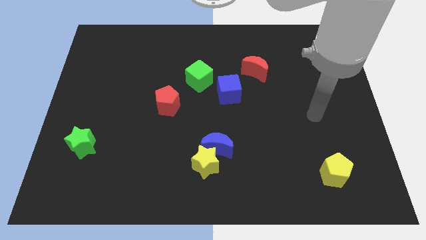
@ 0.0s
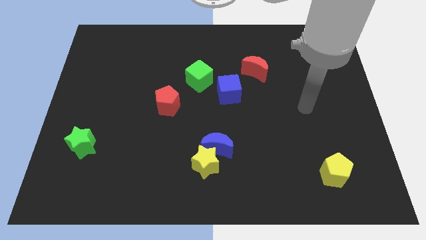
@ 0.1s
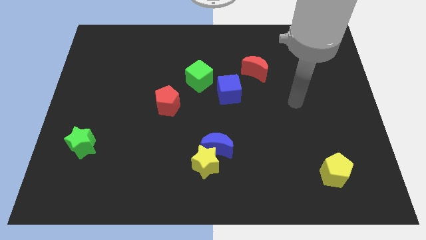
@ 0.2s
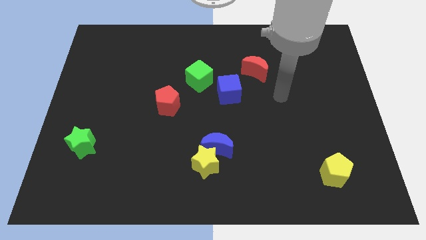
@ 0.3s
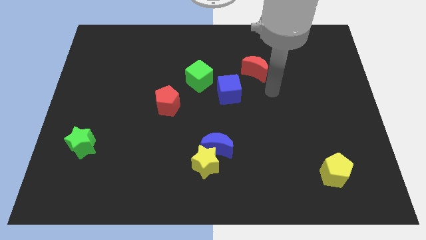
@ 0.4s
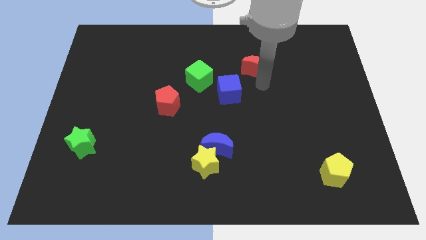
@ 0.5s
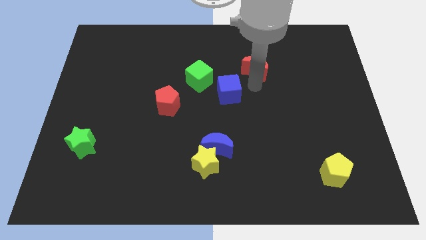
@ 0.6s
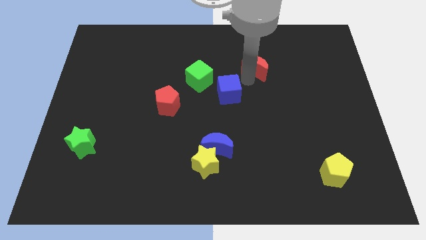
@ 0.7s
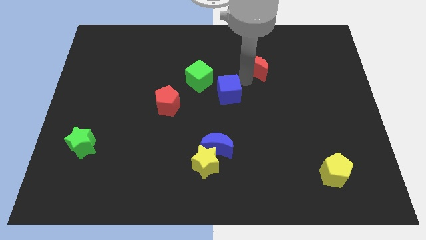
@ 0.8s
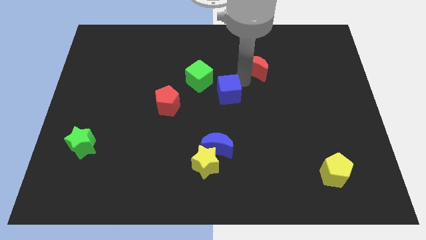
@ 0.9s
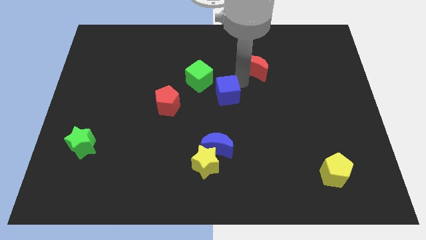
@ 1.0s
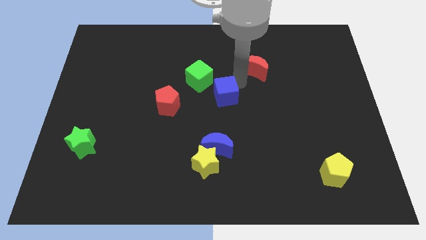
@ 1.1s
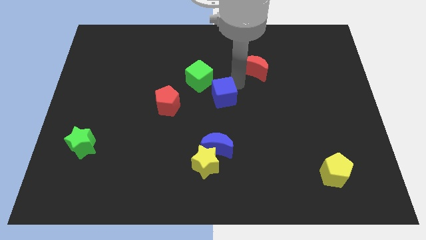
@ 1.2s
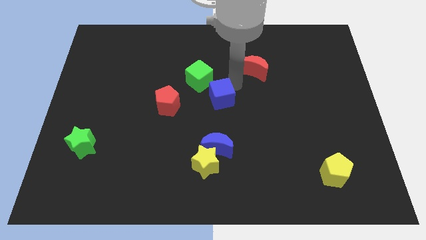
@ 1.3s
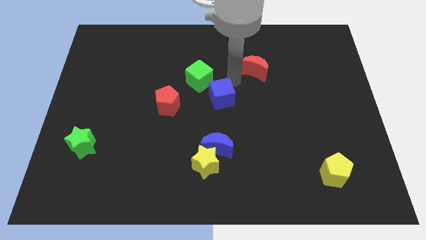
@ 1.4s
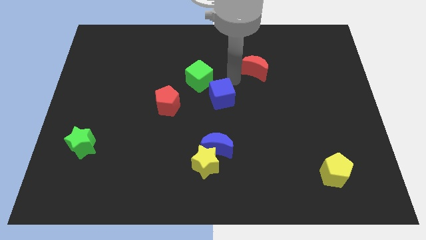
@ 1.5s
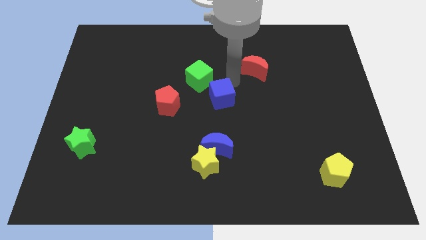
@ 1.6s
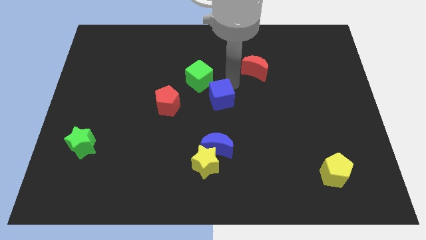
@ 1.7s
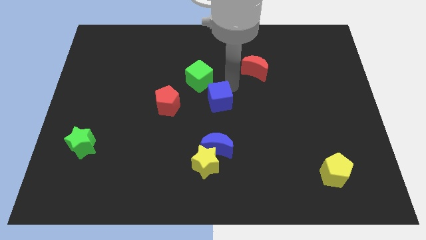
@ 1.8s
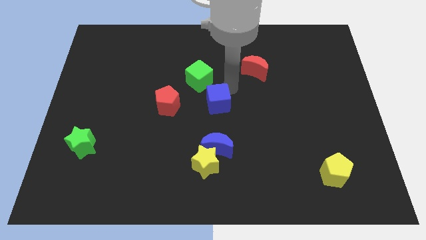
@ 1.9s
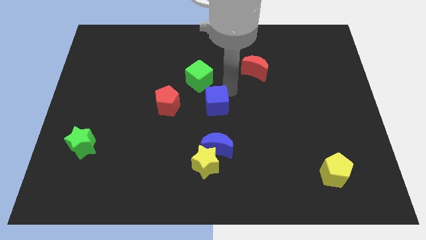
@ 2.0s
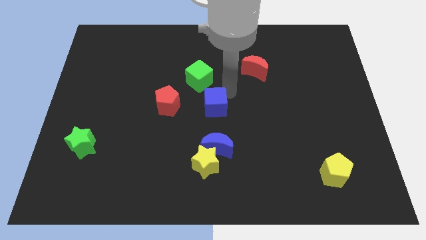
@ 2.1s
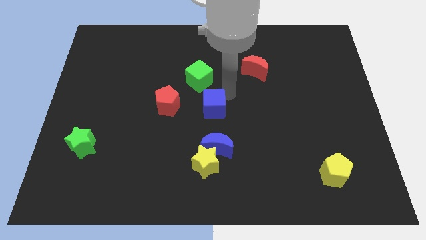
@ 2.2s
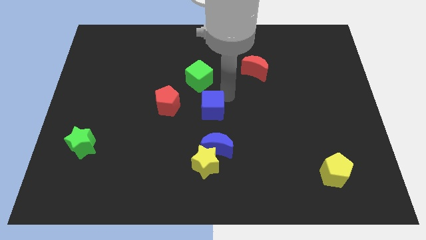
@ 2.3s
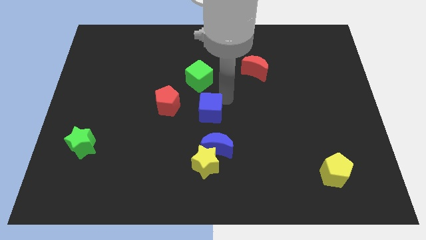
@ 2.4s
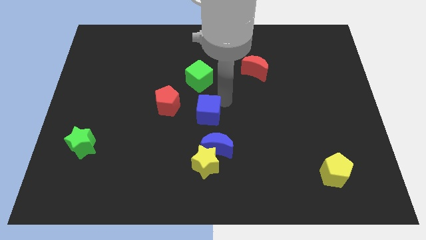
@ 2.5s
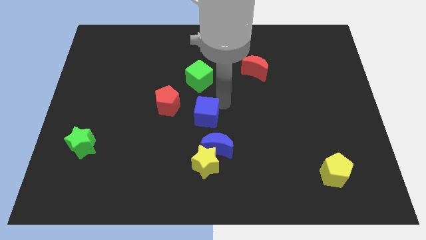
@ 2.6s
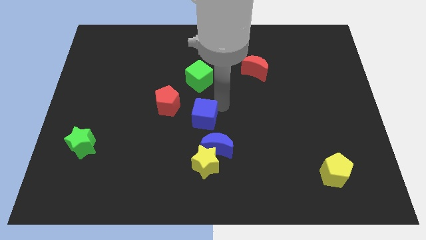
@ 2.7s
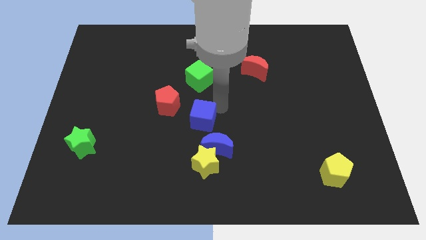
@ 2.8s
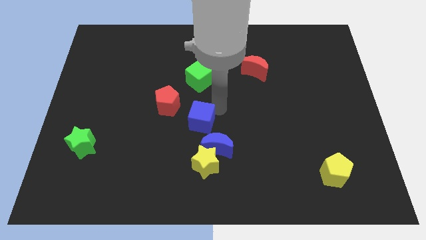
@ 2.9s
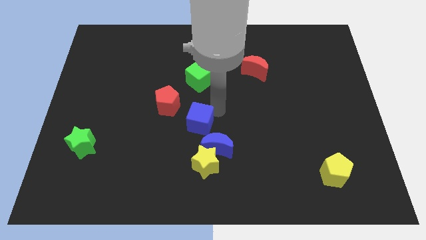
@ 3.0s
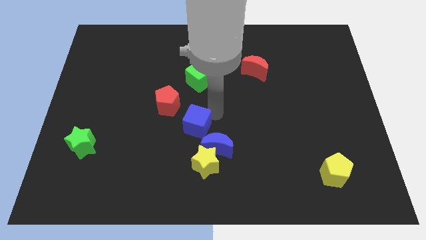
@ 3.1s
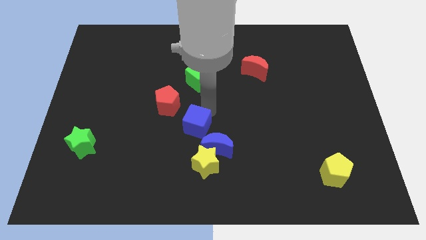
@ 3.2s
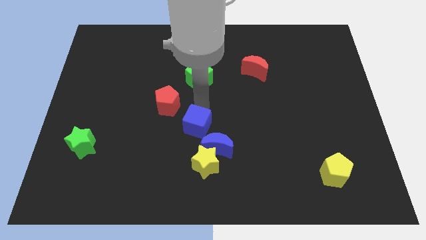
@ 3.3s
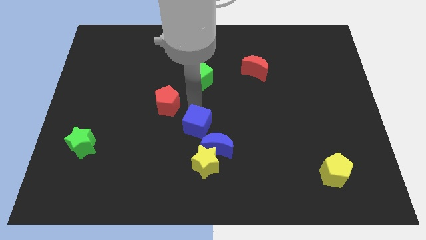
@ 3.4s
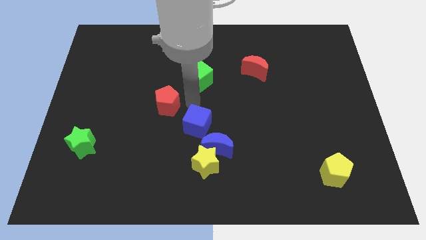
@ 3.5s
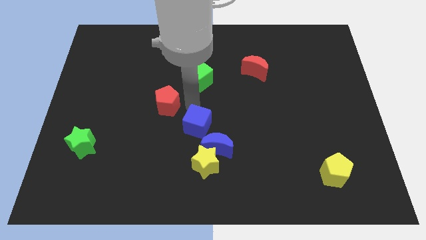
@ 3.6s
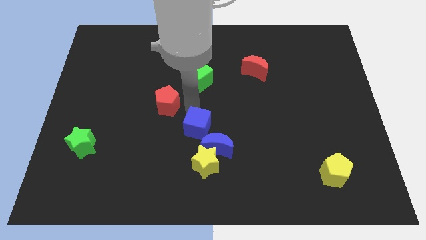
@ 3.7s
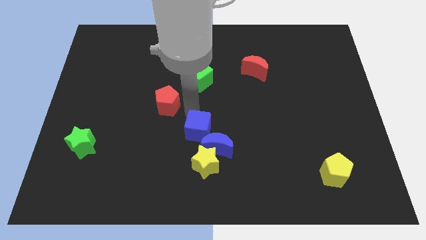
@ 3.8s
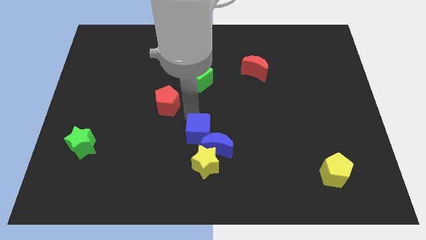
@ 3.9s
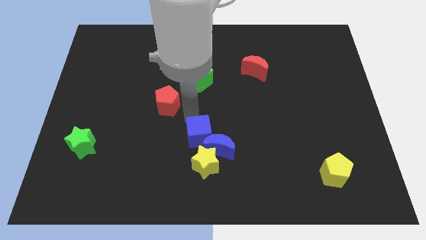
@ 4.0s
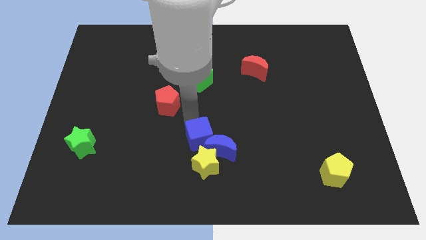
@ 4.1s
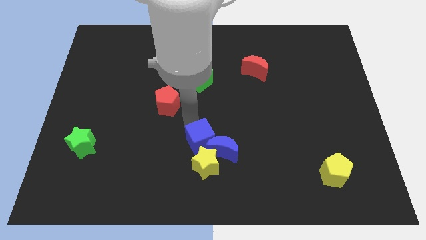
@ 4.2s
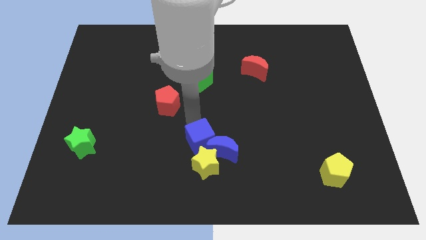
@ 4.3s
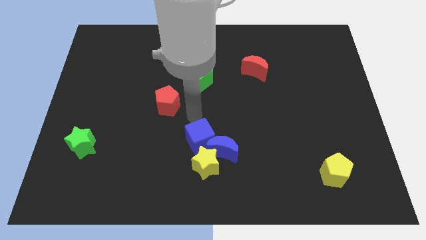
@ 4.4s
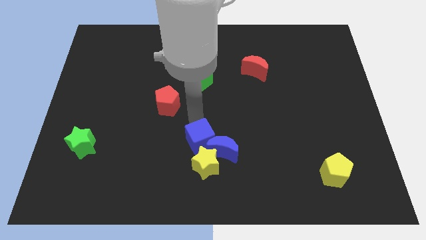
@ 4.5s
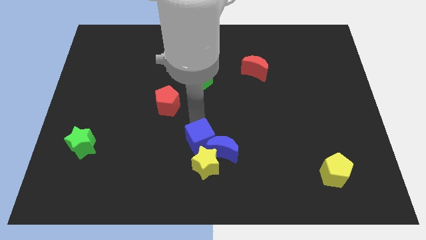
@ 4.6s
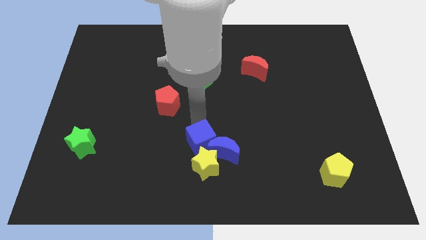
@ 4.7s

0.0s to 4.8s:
move the blue cube next to the yellow star

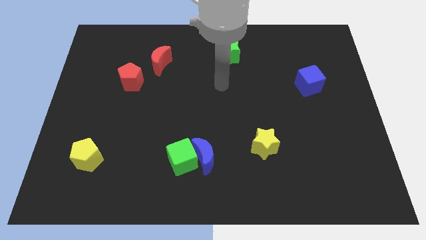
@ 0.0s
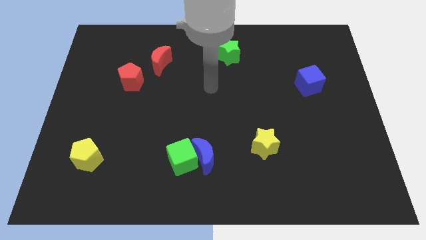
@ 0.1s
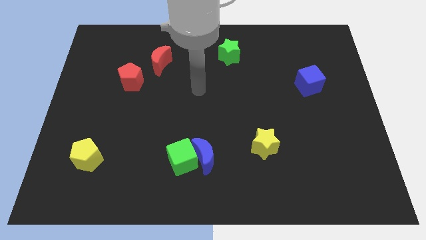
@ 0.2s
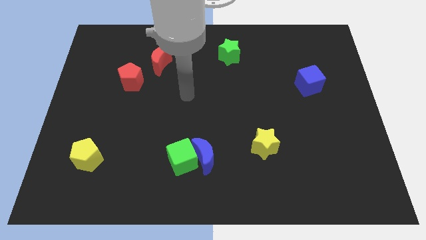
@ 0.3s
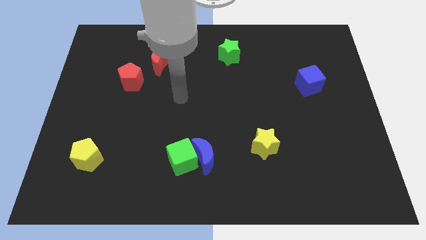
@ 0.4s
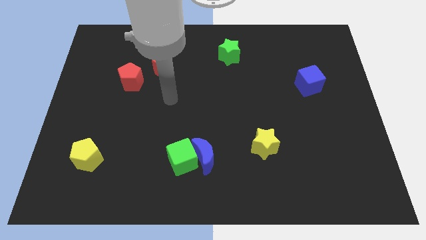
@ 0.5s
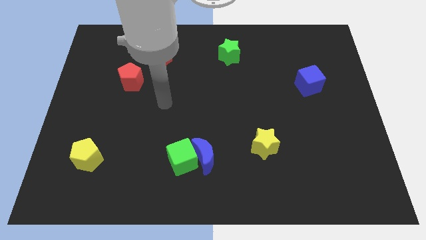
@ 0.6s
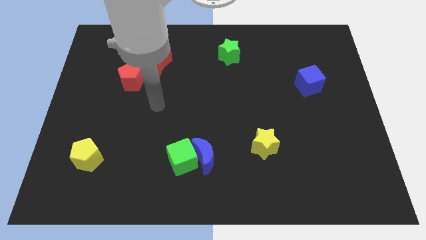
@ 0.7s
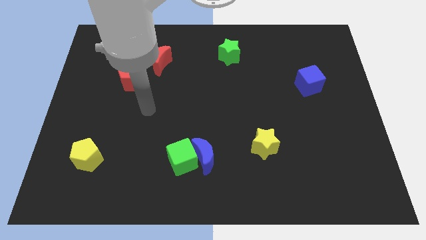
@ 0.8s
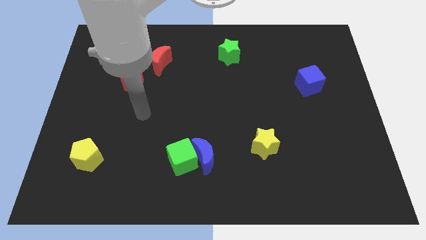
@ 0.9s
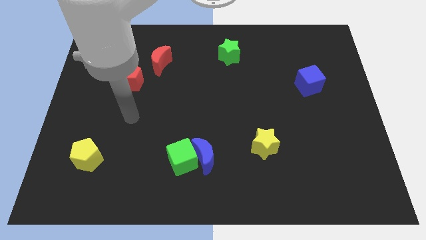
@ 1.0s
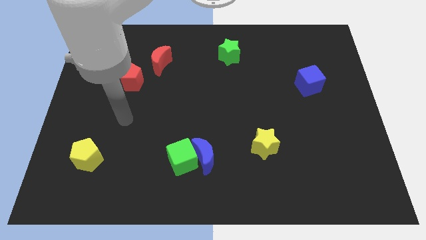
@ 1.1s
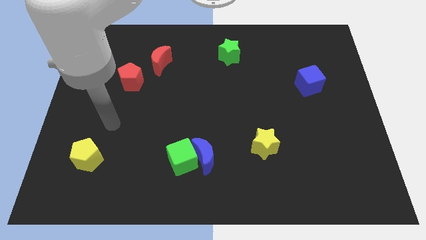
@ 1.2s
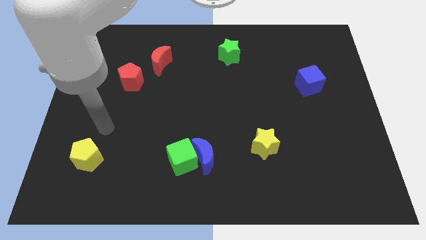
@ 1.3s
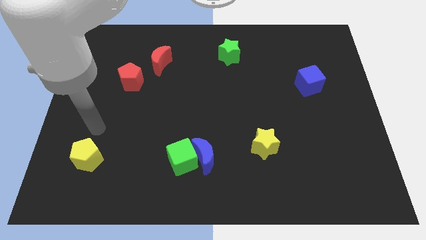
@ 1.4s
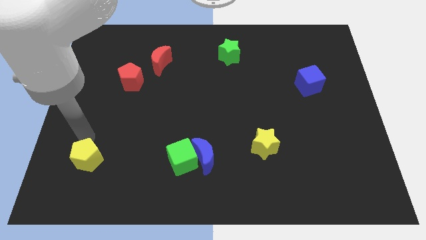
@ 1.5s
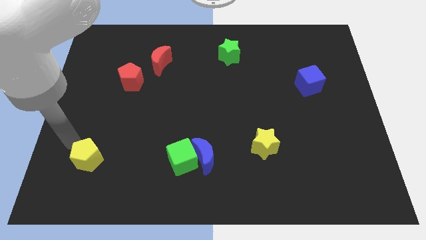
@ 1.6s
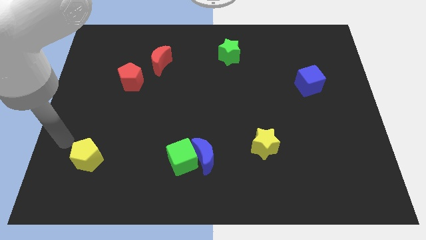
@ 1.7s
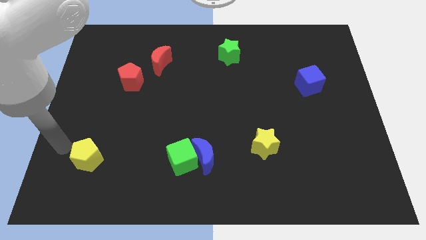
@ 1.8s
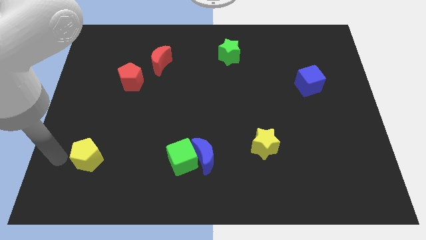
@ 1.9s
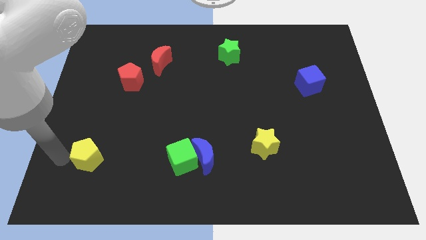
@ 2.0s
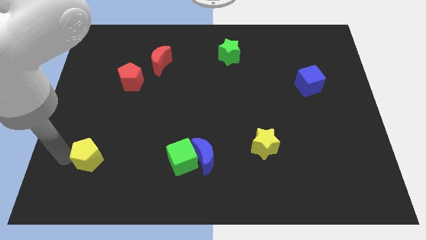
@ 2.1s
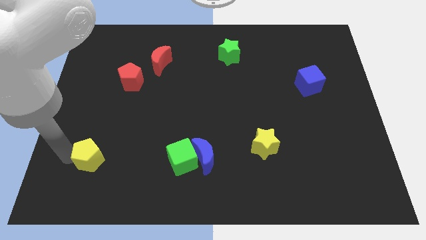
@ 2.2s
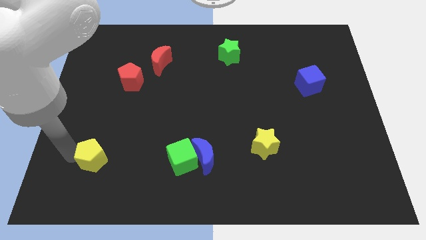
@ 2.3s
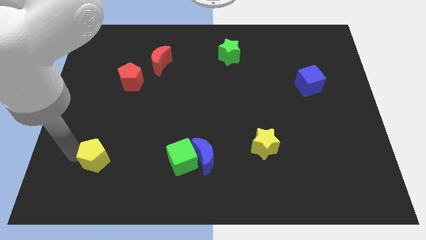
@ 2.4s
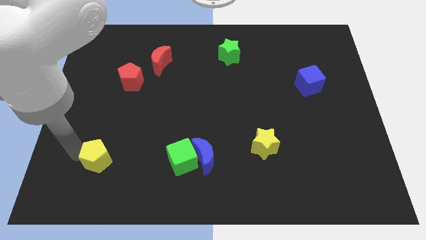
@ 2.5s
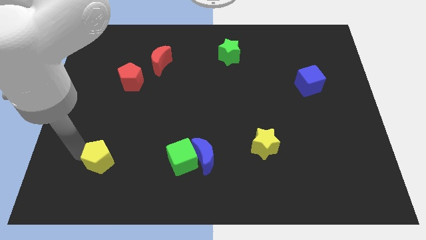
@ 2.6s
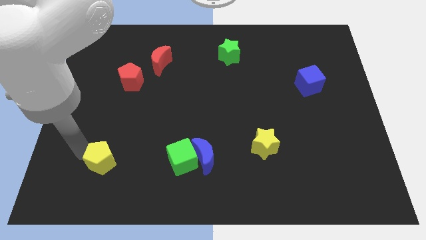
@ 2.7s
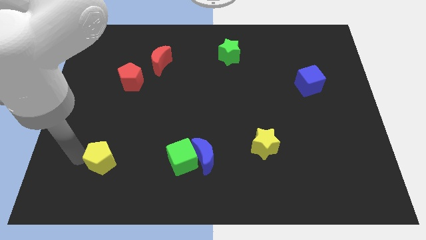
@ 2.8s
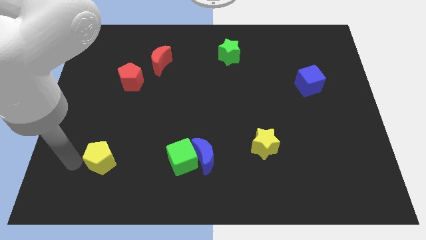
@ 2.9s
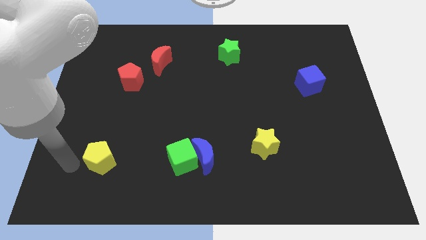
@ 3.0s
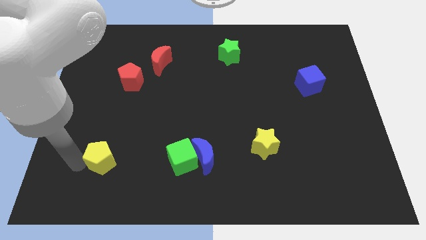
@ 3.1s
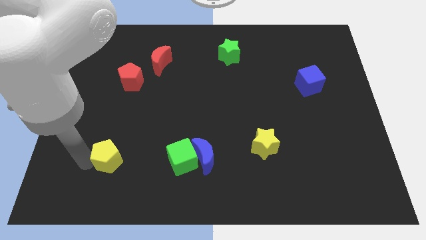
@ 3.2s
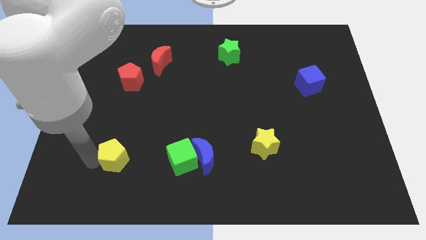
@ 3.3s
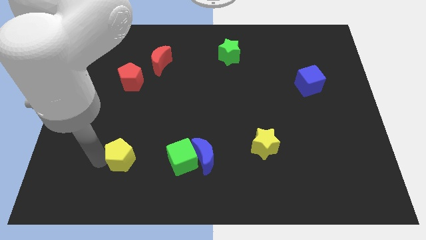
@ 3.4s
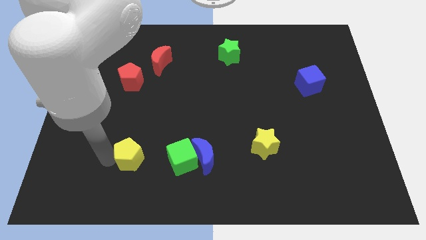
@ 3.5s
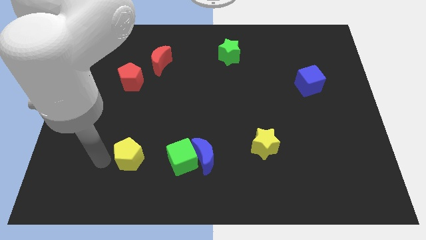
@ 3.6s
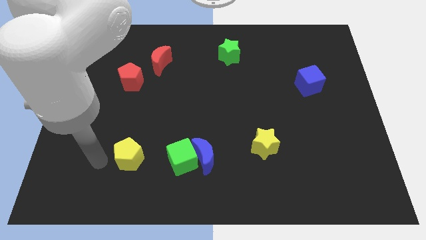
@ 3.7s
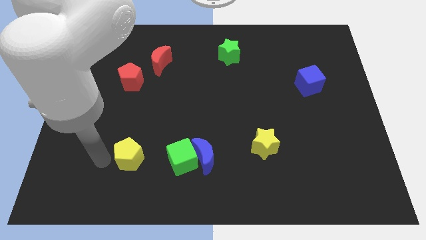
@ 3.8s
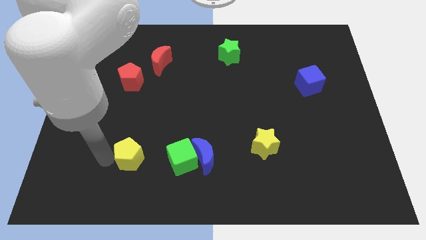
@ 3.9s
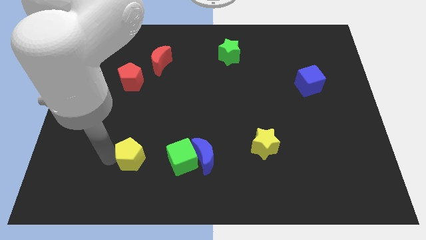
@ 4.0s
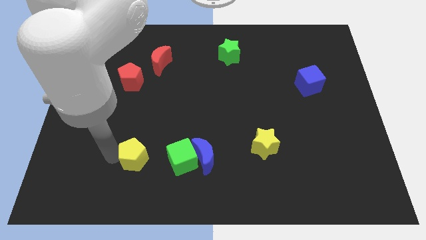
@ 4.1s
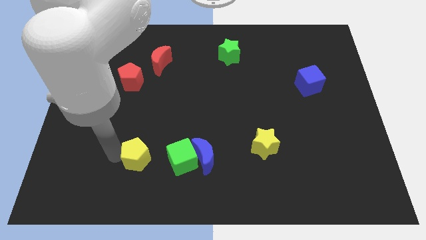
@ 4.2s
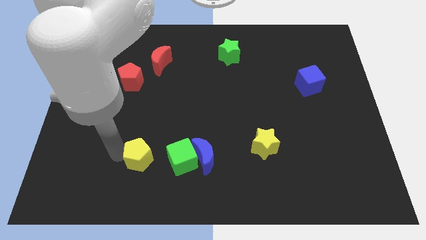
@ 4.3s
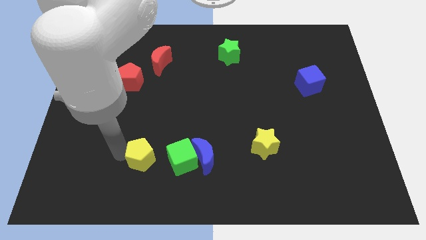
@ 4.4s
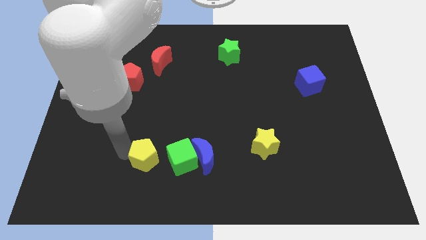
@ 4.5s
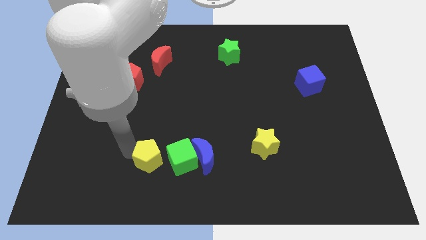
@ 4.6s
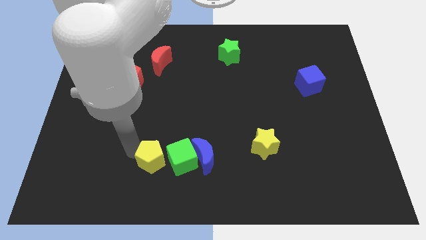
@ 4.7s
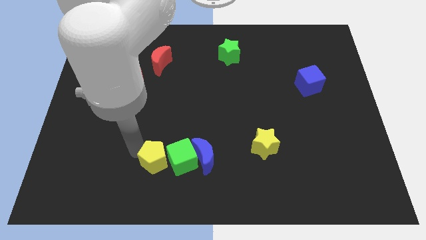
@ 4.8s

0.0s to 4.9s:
move the yellow pentagon to the green cube
